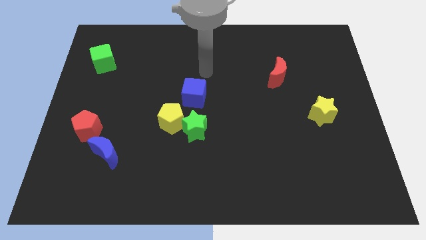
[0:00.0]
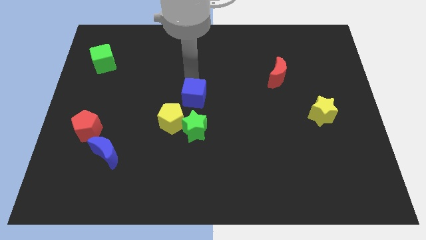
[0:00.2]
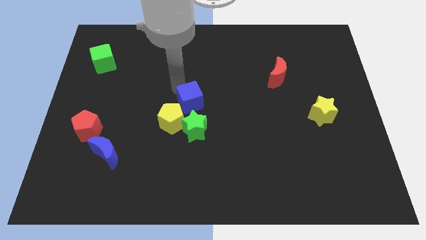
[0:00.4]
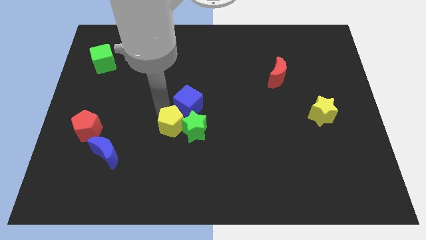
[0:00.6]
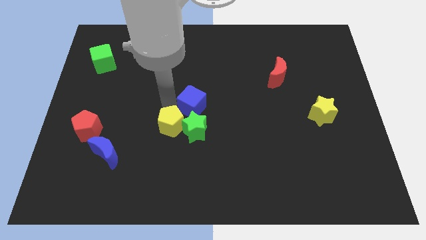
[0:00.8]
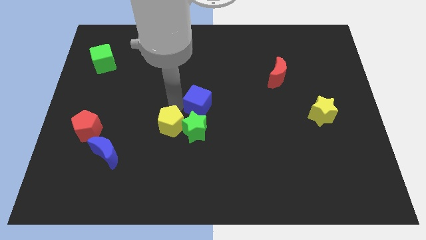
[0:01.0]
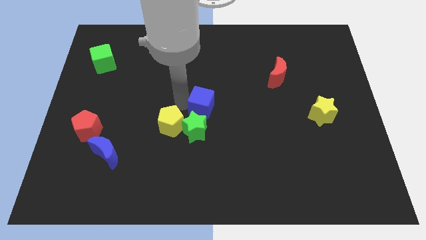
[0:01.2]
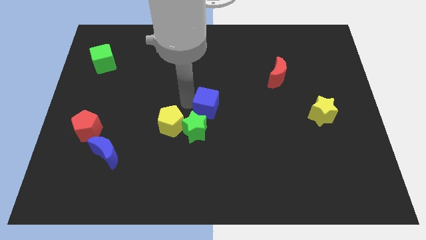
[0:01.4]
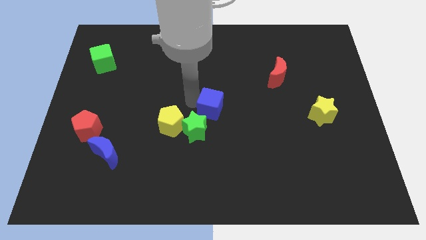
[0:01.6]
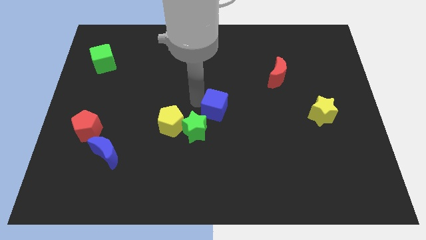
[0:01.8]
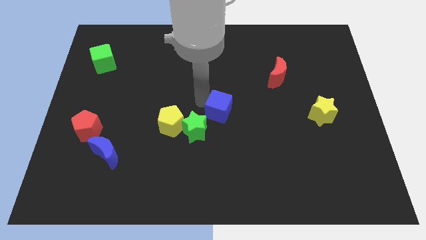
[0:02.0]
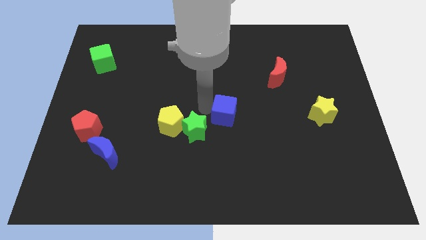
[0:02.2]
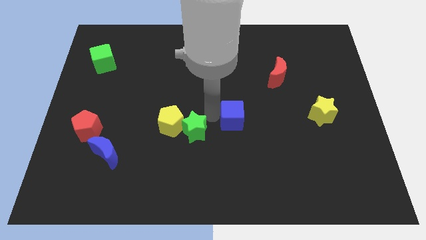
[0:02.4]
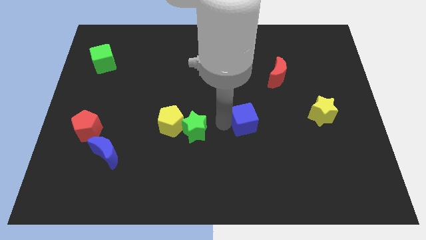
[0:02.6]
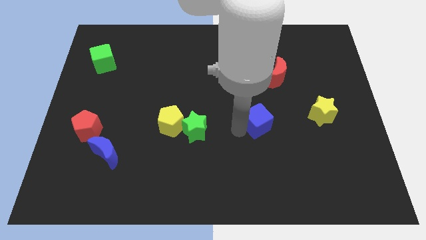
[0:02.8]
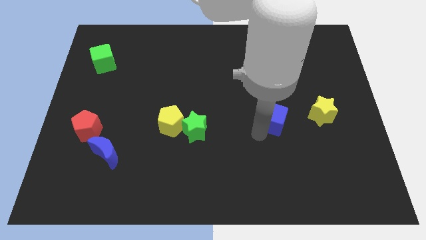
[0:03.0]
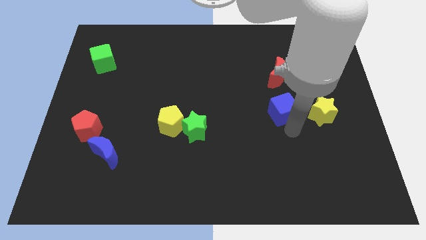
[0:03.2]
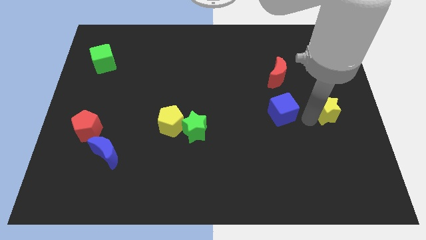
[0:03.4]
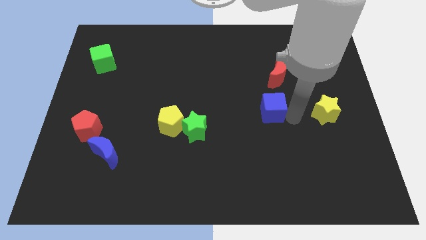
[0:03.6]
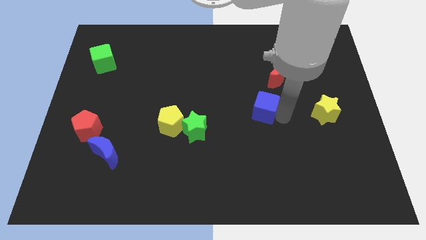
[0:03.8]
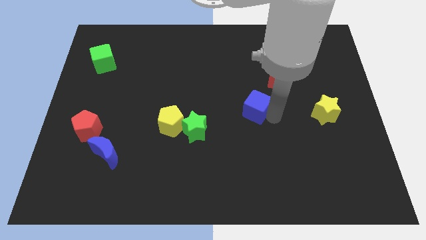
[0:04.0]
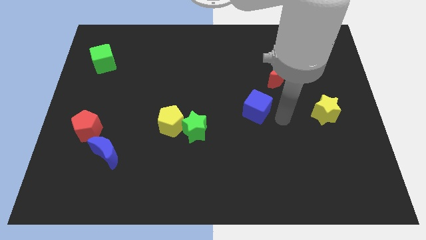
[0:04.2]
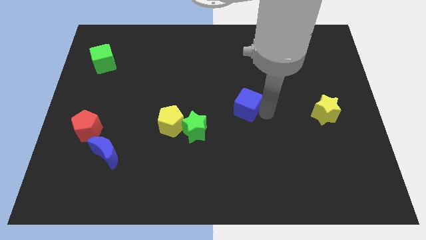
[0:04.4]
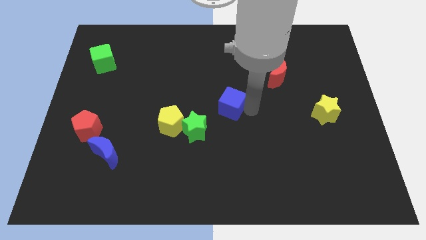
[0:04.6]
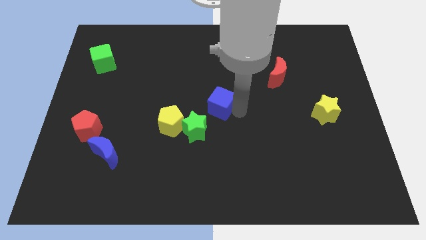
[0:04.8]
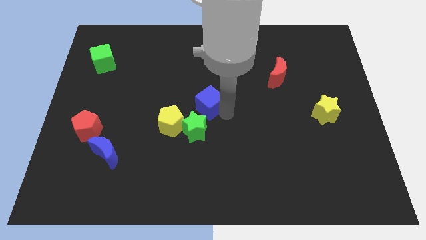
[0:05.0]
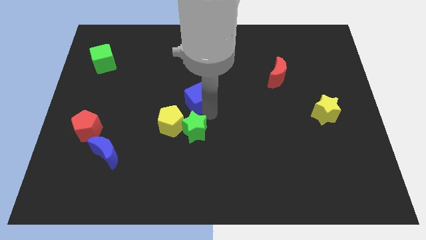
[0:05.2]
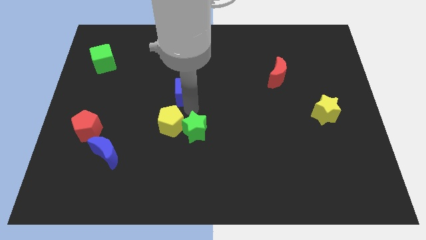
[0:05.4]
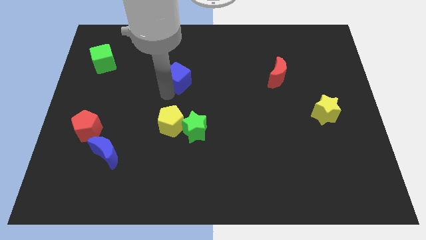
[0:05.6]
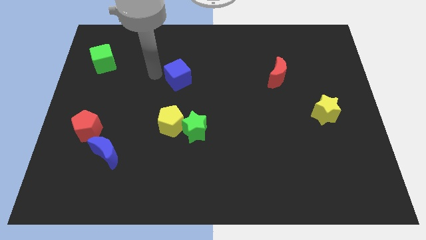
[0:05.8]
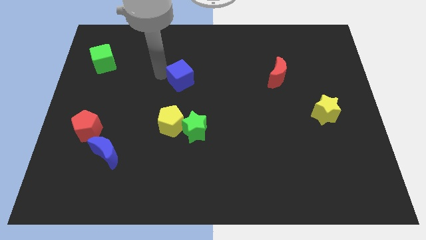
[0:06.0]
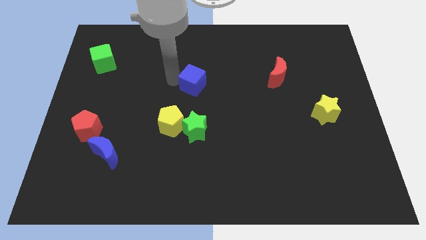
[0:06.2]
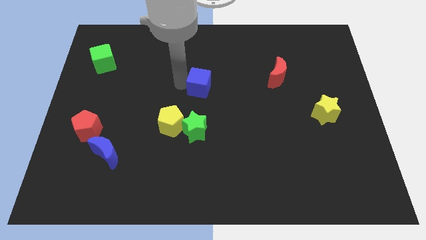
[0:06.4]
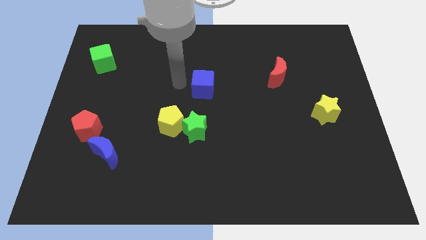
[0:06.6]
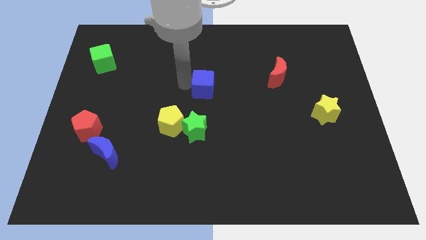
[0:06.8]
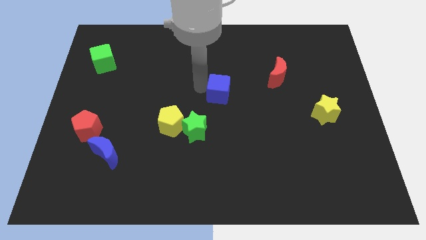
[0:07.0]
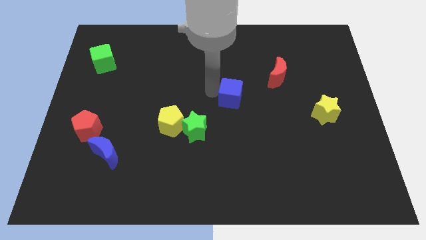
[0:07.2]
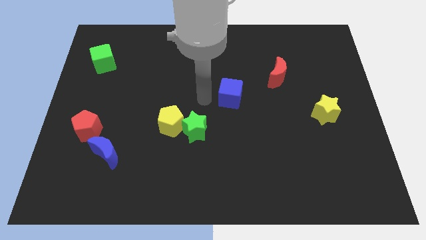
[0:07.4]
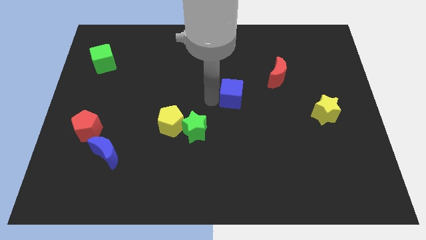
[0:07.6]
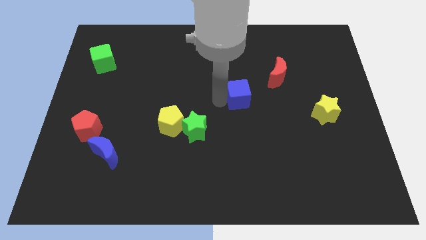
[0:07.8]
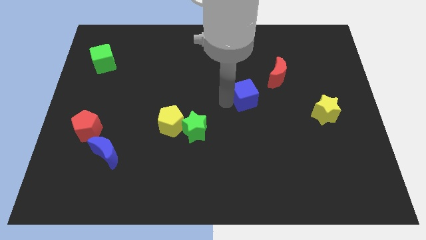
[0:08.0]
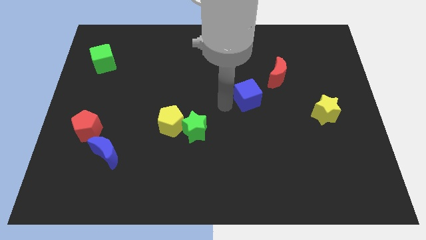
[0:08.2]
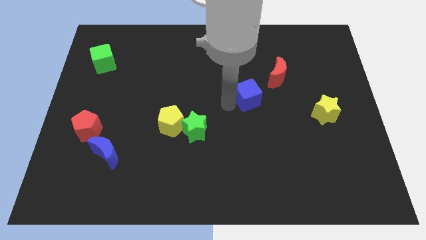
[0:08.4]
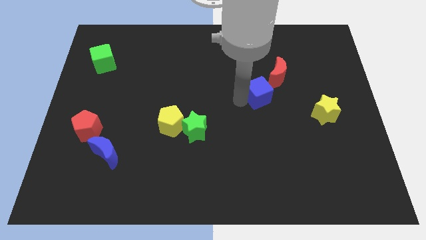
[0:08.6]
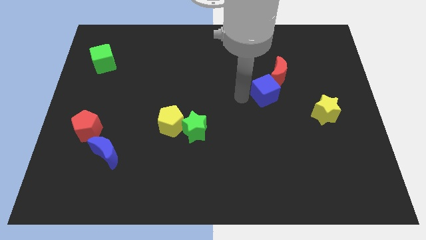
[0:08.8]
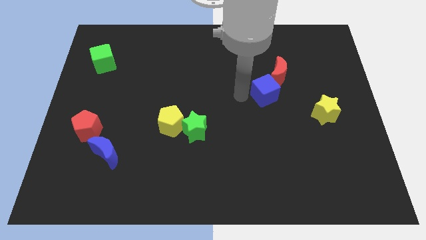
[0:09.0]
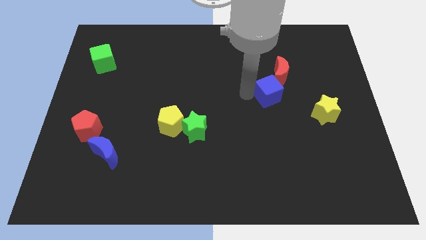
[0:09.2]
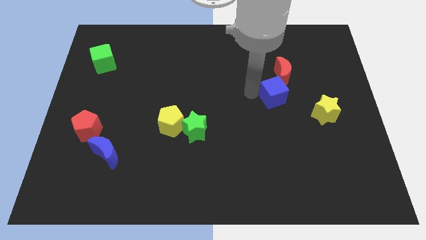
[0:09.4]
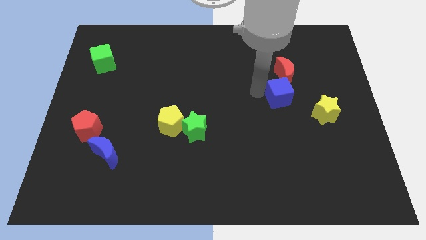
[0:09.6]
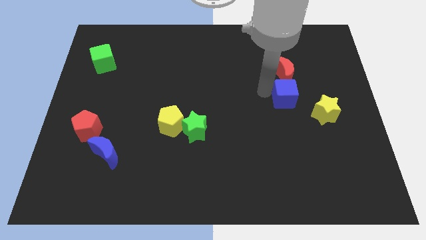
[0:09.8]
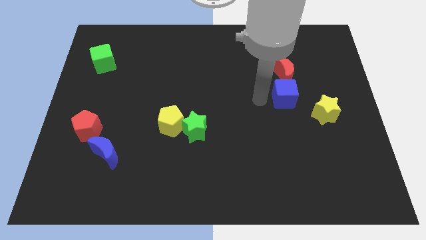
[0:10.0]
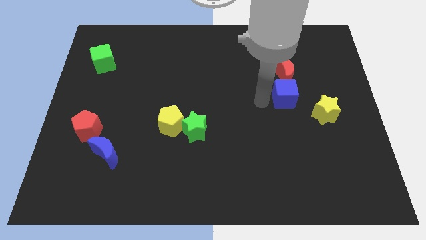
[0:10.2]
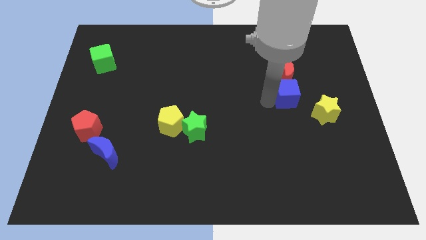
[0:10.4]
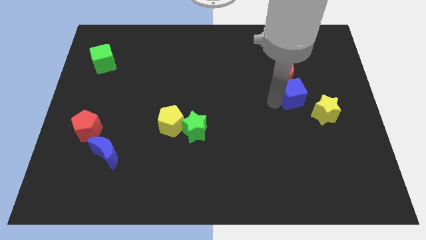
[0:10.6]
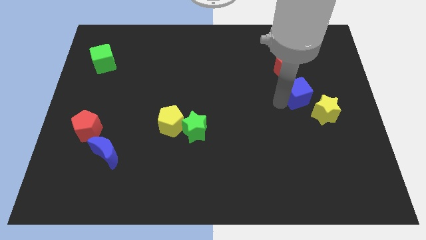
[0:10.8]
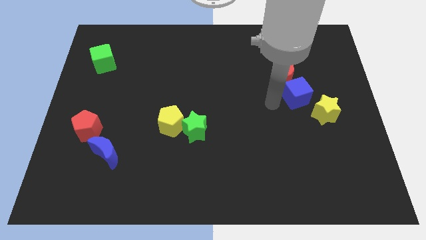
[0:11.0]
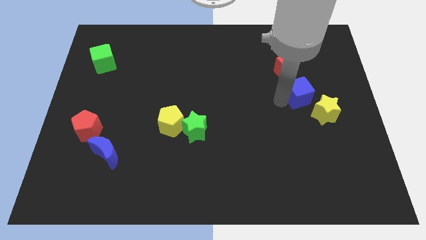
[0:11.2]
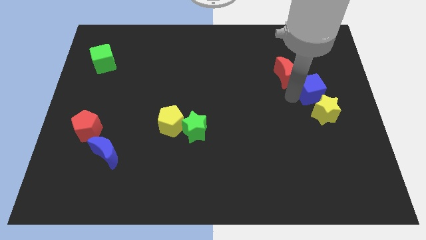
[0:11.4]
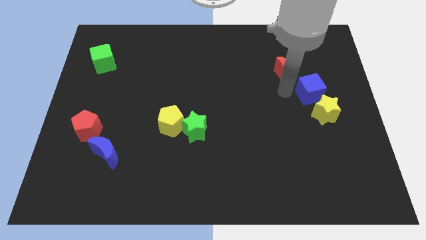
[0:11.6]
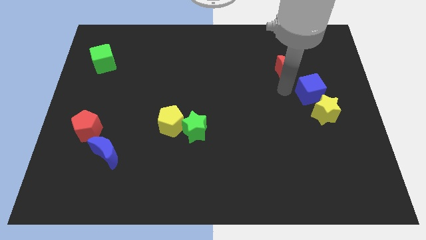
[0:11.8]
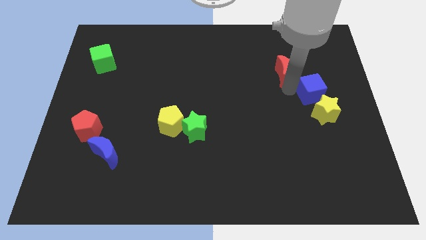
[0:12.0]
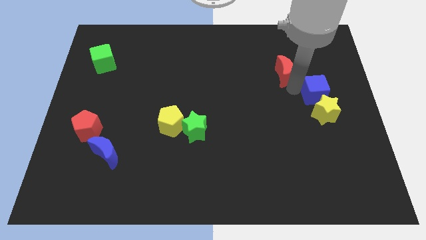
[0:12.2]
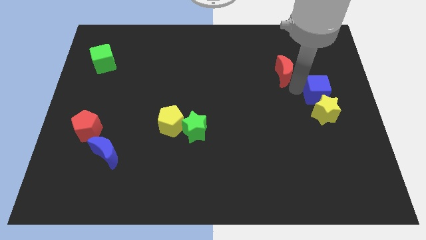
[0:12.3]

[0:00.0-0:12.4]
move the blue cube to the right side
